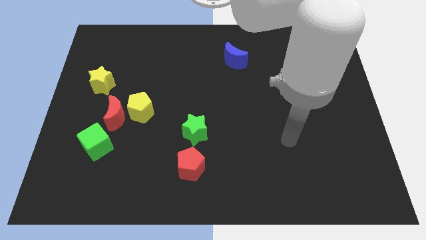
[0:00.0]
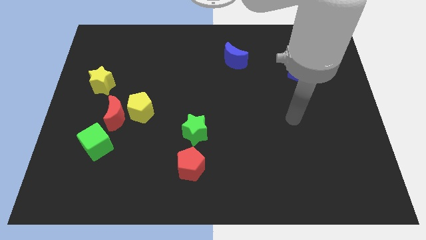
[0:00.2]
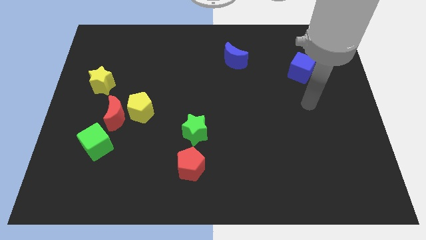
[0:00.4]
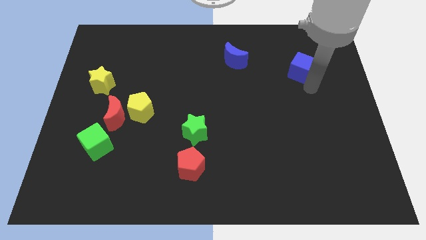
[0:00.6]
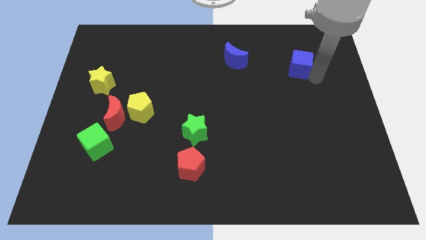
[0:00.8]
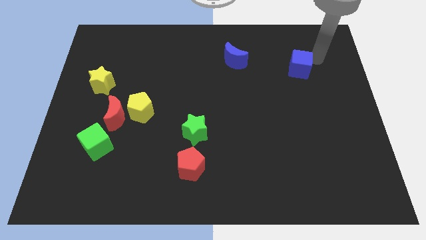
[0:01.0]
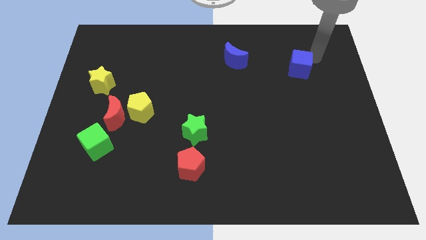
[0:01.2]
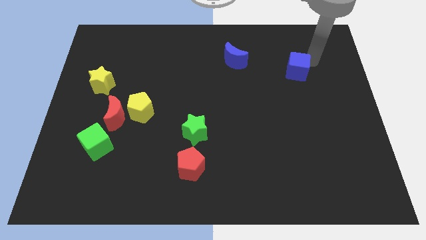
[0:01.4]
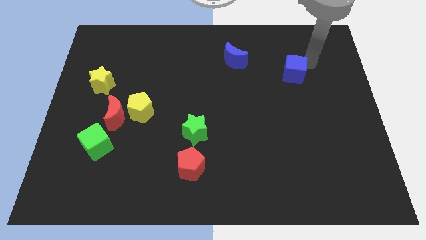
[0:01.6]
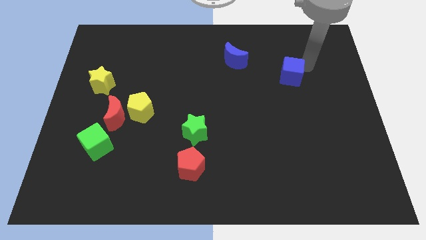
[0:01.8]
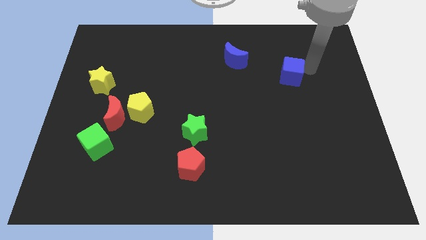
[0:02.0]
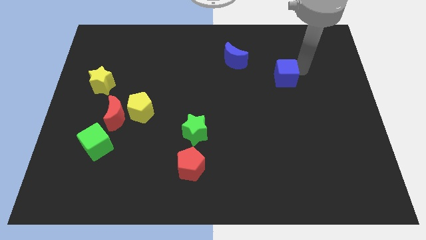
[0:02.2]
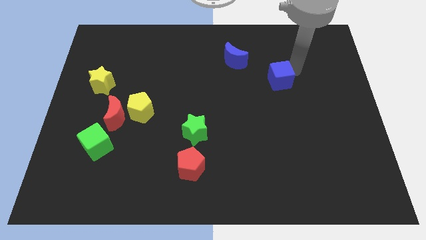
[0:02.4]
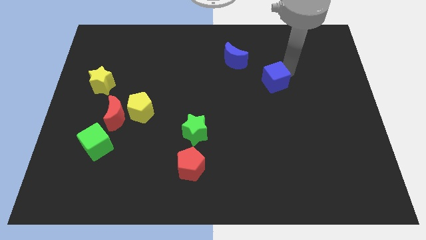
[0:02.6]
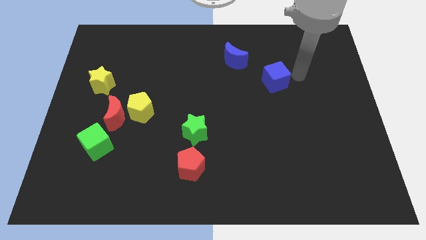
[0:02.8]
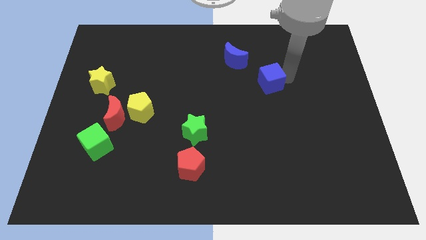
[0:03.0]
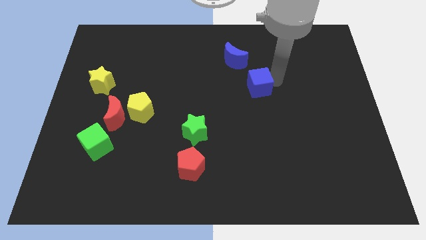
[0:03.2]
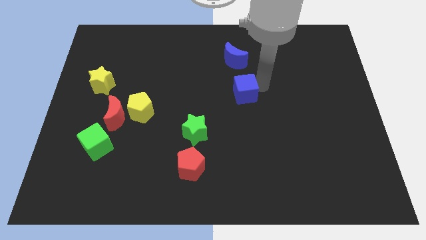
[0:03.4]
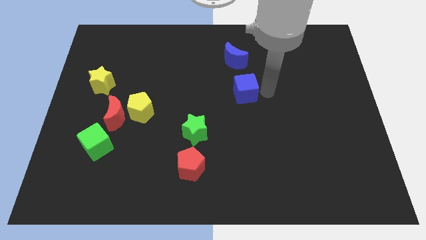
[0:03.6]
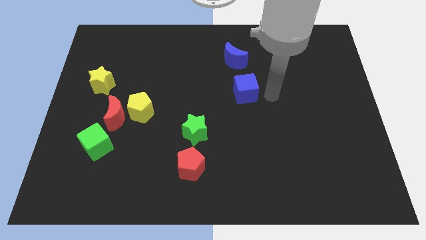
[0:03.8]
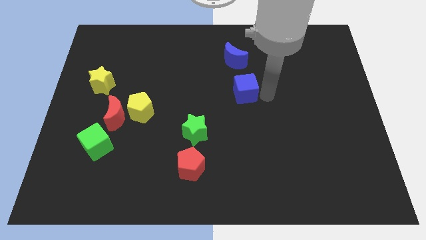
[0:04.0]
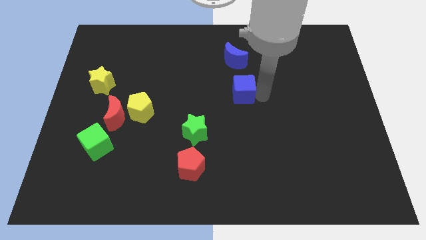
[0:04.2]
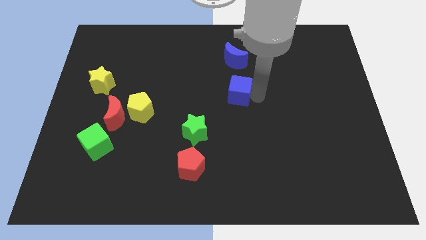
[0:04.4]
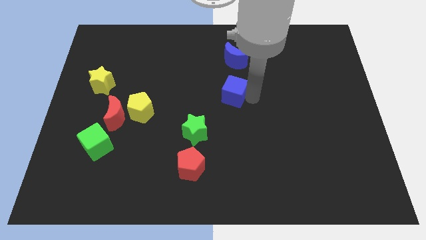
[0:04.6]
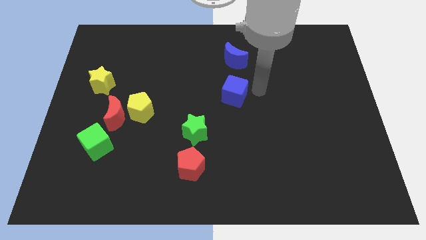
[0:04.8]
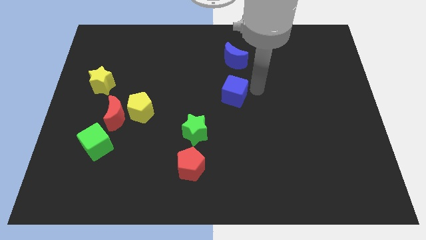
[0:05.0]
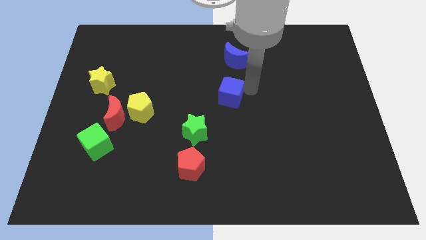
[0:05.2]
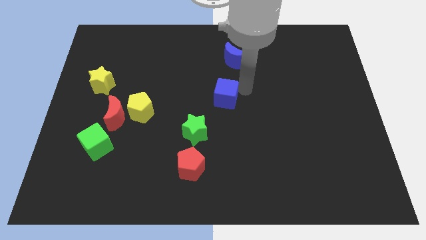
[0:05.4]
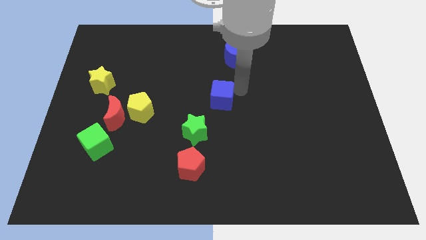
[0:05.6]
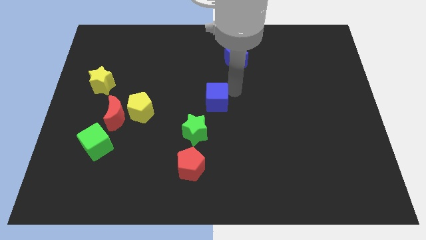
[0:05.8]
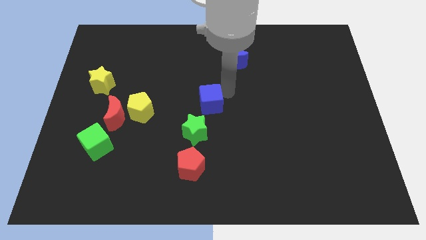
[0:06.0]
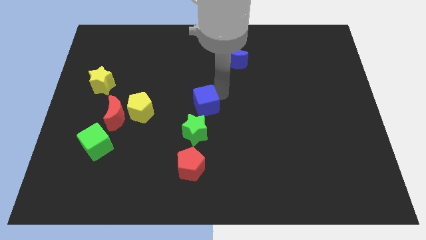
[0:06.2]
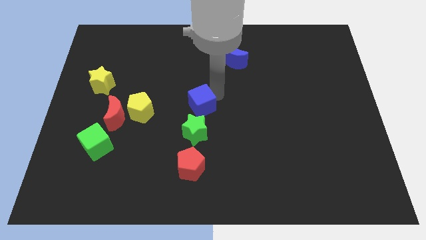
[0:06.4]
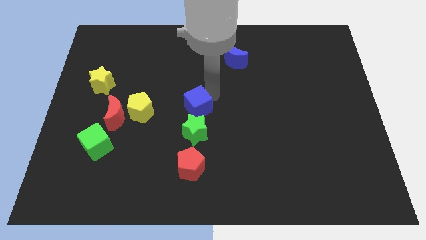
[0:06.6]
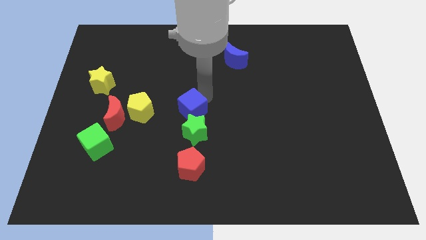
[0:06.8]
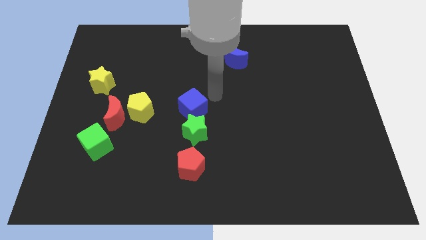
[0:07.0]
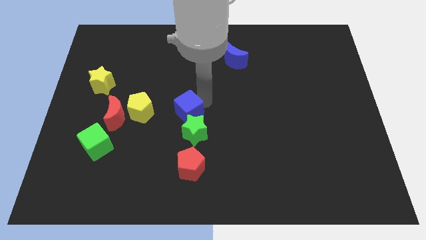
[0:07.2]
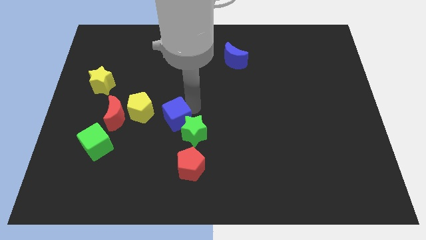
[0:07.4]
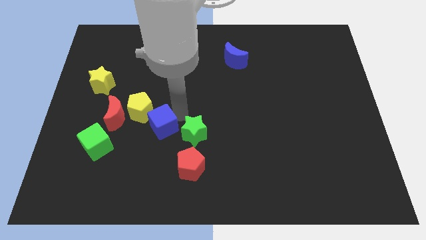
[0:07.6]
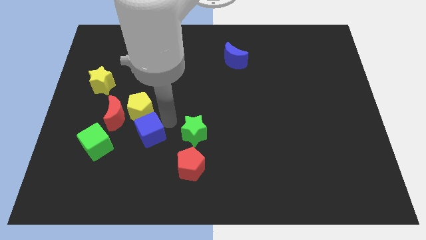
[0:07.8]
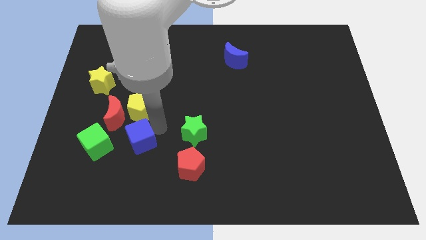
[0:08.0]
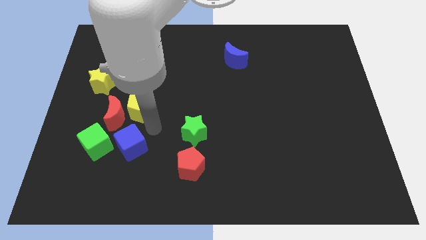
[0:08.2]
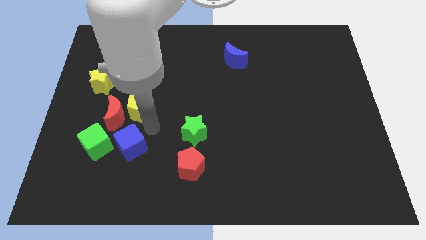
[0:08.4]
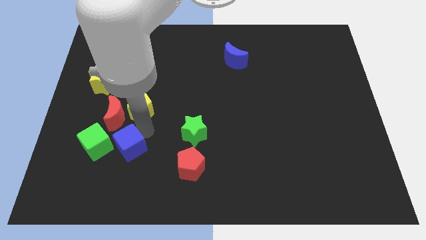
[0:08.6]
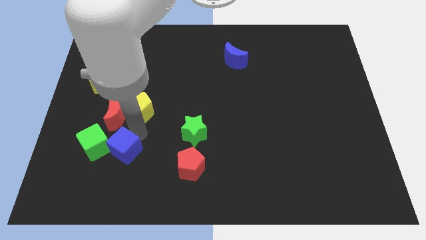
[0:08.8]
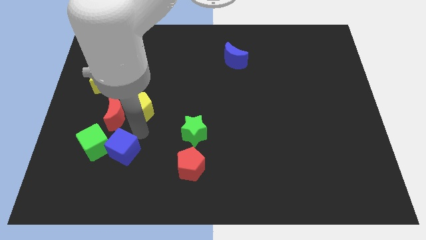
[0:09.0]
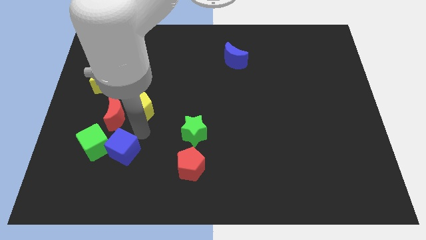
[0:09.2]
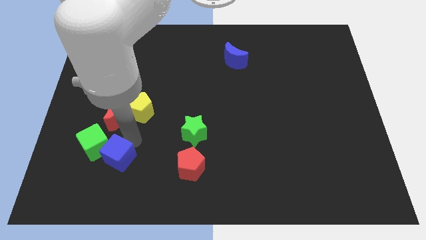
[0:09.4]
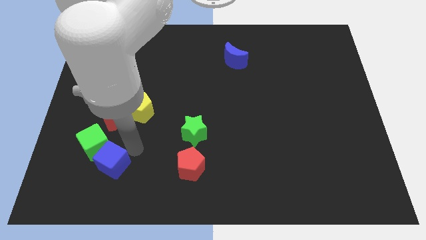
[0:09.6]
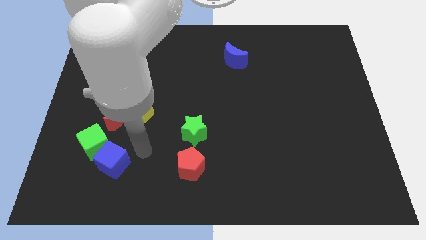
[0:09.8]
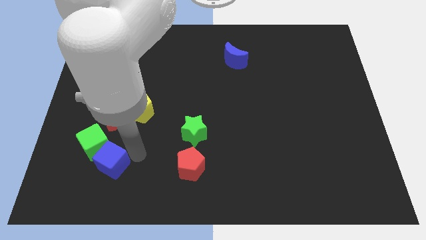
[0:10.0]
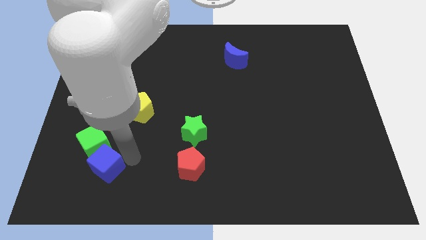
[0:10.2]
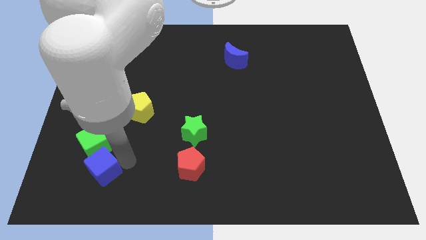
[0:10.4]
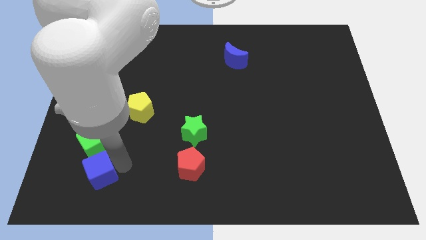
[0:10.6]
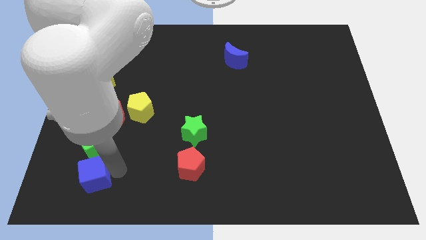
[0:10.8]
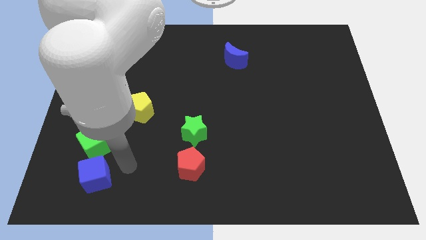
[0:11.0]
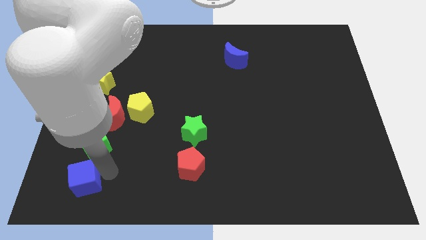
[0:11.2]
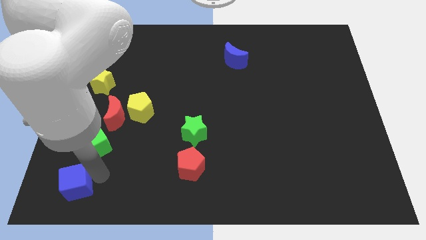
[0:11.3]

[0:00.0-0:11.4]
push the blue cube to the lower left corner

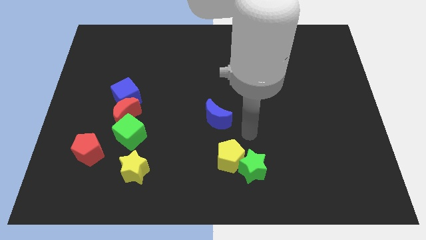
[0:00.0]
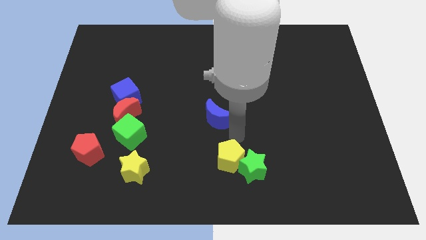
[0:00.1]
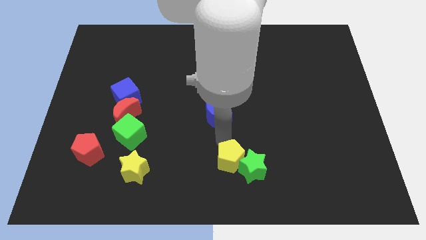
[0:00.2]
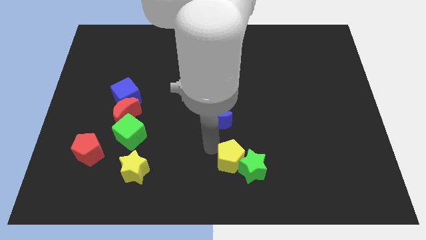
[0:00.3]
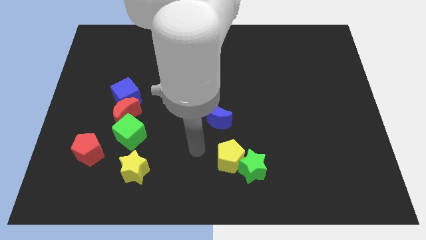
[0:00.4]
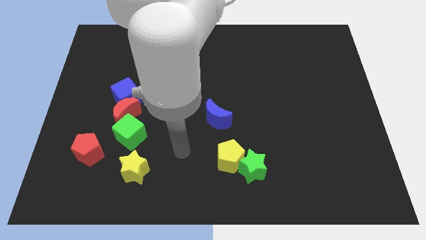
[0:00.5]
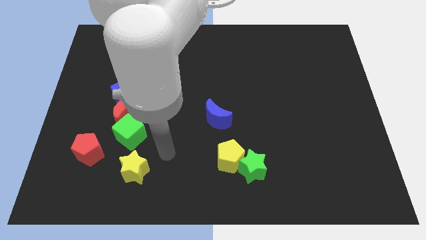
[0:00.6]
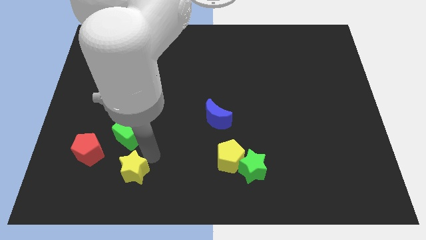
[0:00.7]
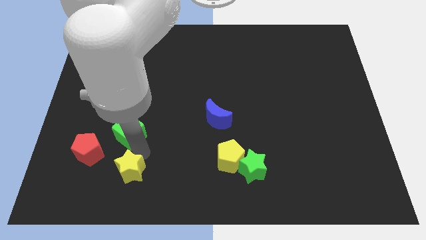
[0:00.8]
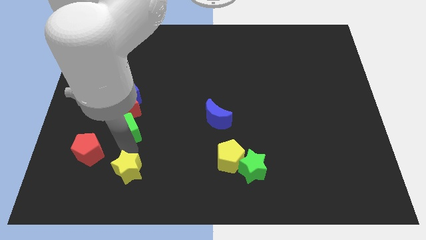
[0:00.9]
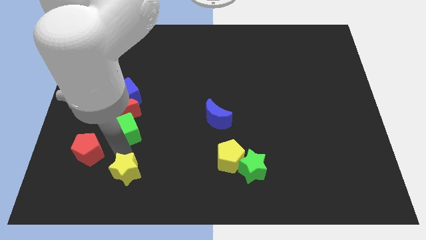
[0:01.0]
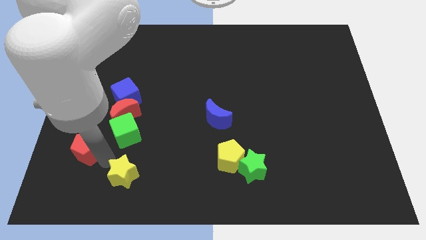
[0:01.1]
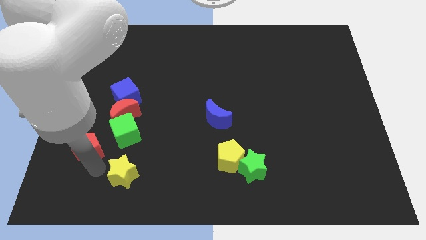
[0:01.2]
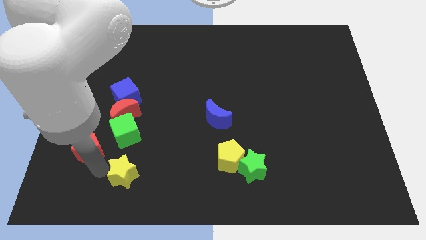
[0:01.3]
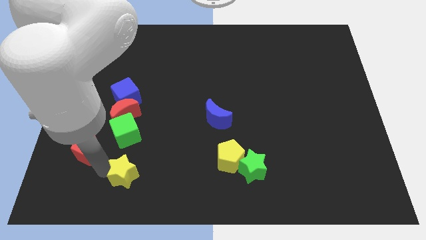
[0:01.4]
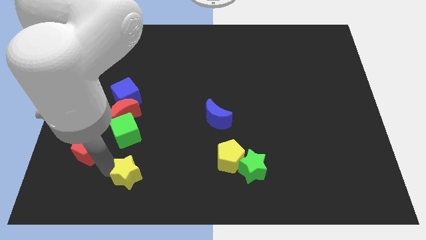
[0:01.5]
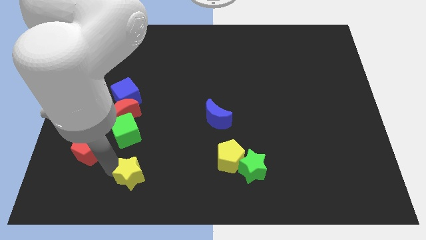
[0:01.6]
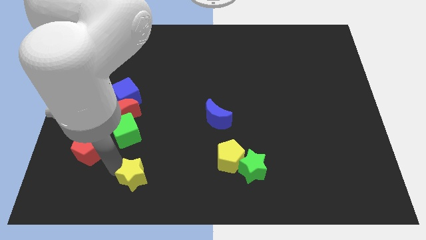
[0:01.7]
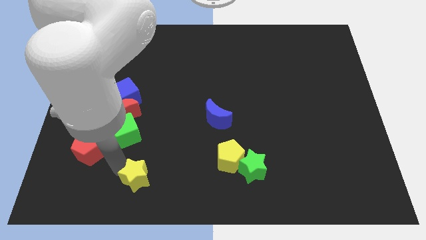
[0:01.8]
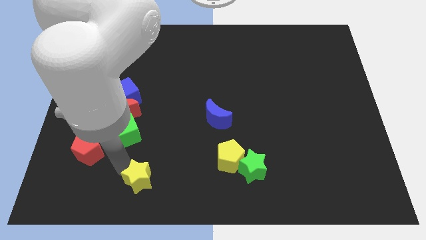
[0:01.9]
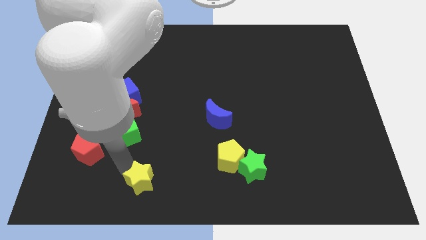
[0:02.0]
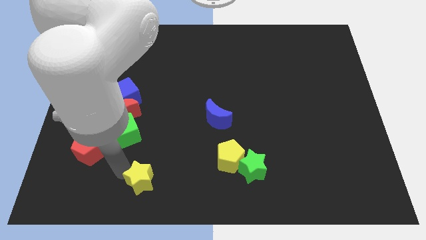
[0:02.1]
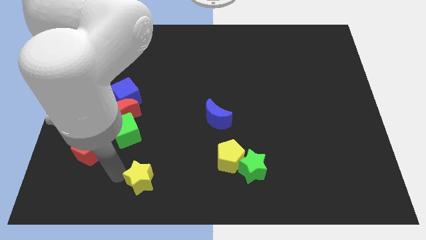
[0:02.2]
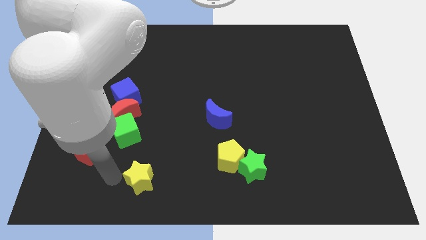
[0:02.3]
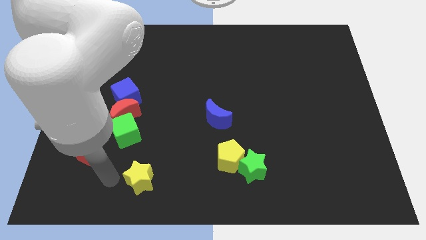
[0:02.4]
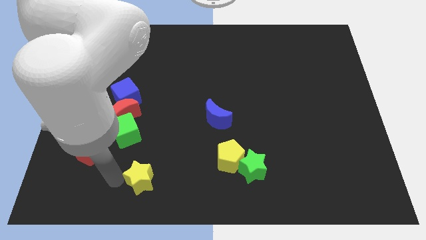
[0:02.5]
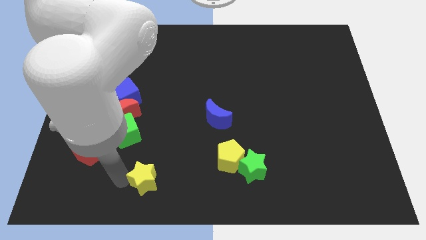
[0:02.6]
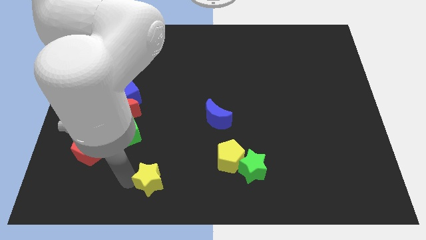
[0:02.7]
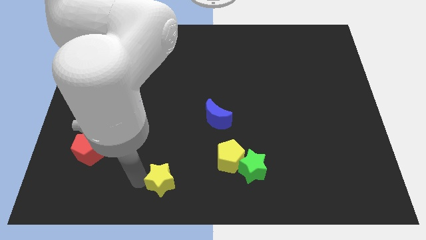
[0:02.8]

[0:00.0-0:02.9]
slide the yellow star to the bottom side
